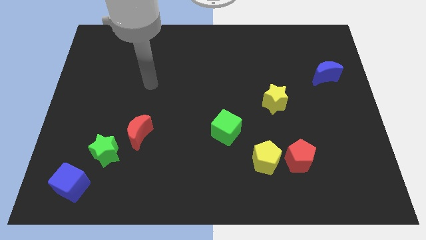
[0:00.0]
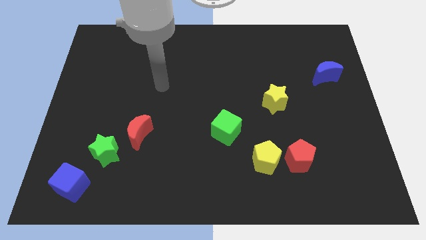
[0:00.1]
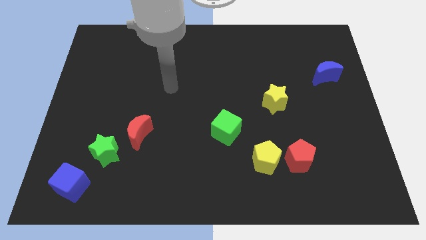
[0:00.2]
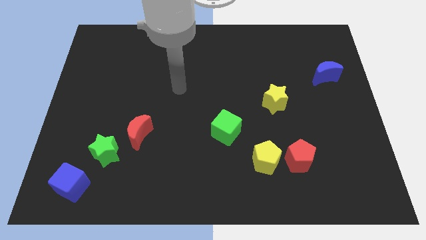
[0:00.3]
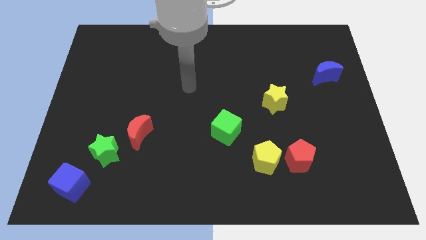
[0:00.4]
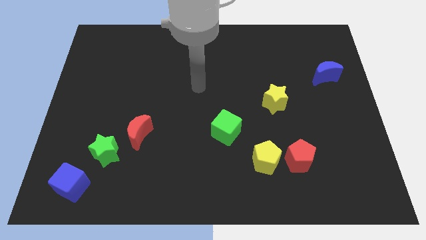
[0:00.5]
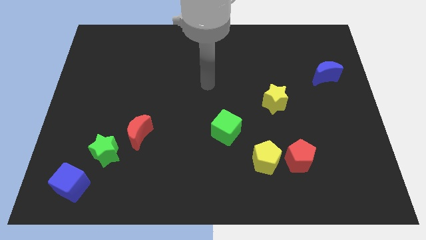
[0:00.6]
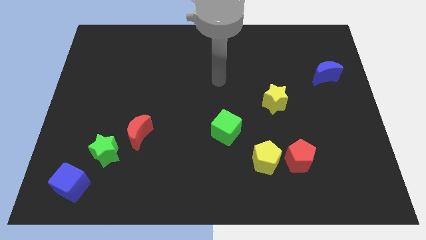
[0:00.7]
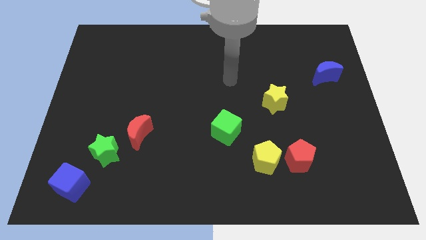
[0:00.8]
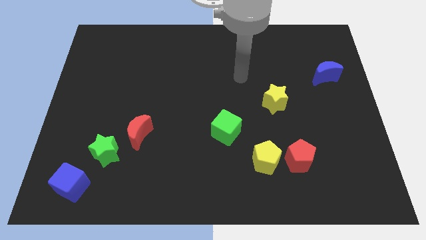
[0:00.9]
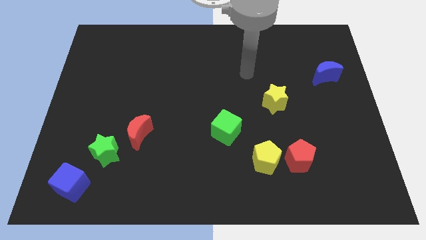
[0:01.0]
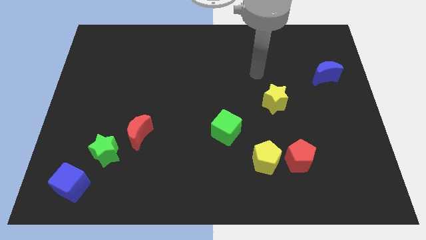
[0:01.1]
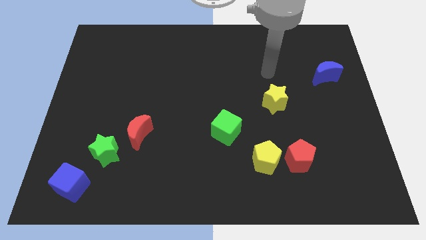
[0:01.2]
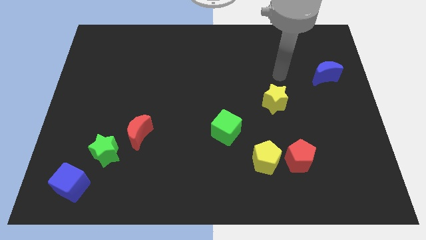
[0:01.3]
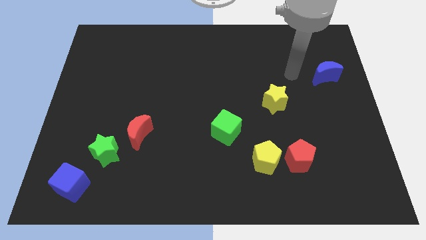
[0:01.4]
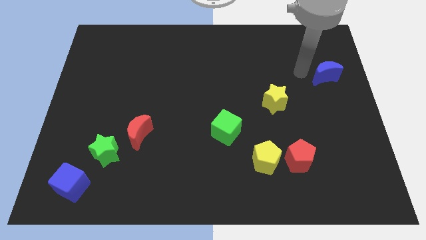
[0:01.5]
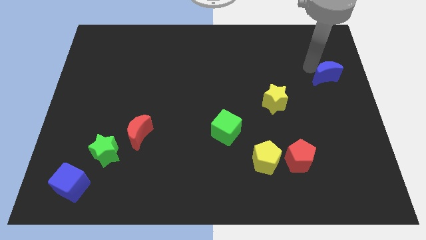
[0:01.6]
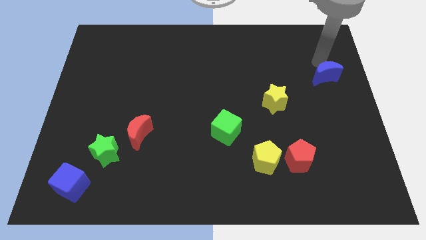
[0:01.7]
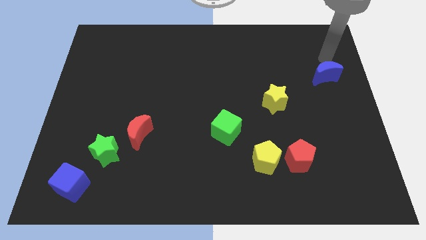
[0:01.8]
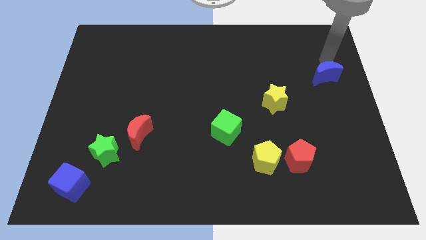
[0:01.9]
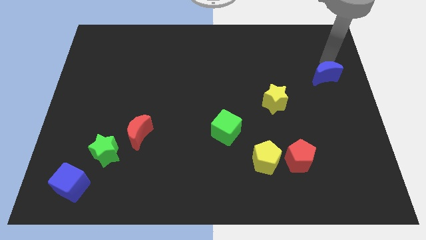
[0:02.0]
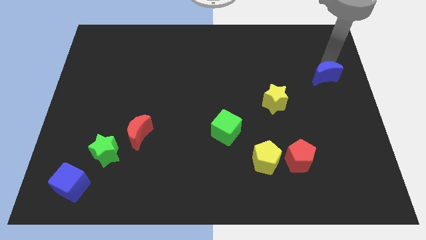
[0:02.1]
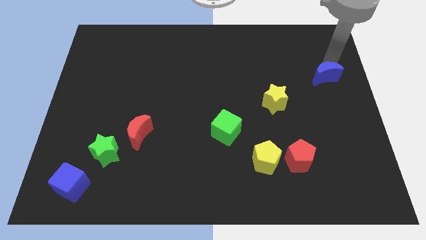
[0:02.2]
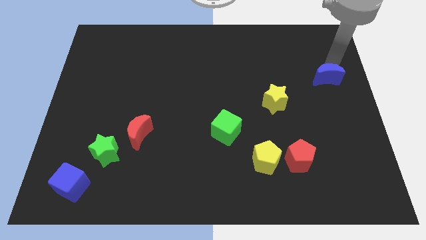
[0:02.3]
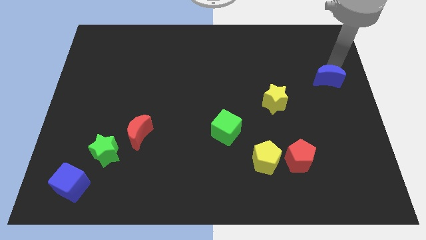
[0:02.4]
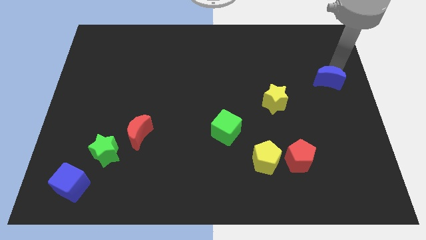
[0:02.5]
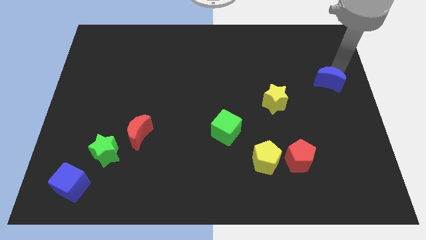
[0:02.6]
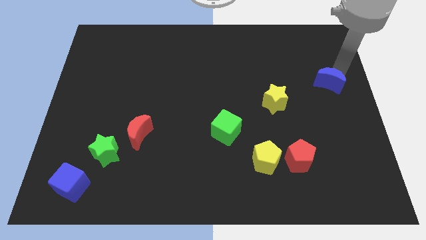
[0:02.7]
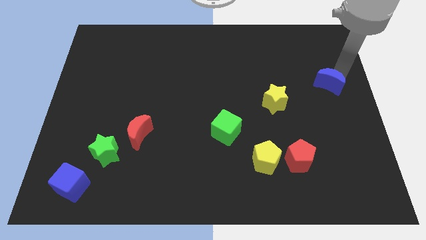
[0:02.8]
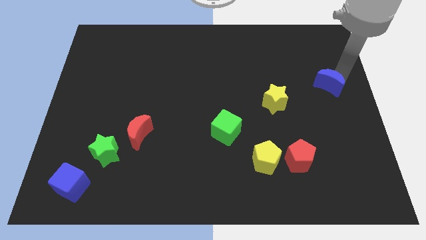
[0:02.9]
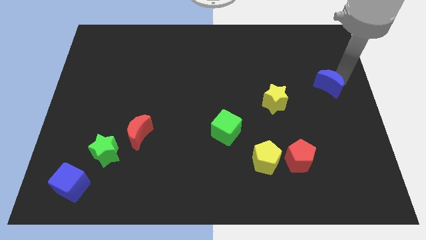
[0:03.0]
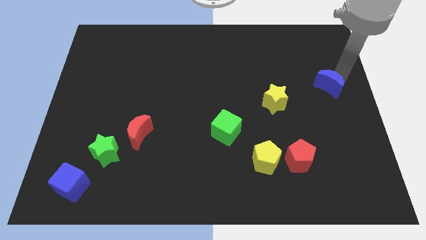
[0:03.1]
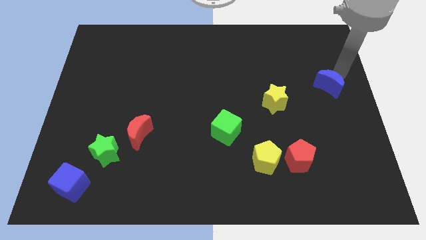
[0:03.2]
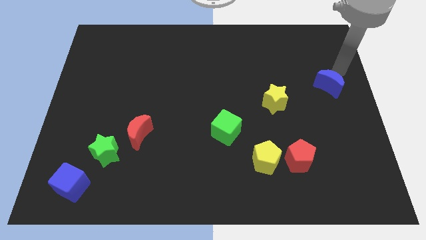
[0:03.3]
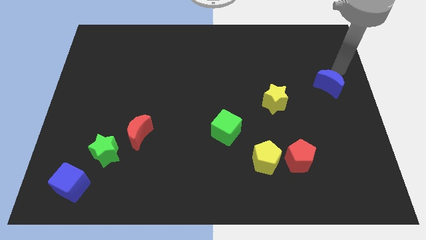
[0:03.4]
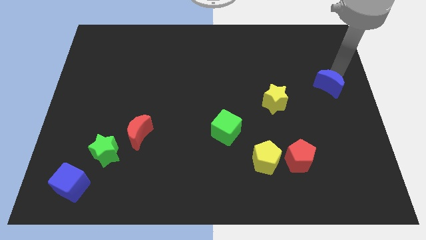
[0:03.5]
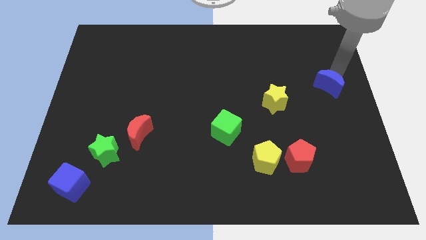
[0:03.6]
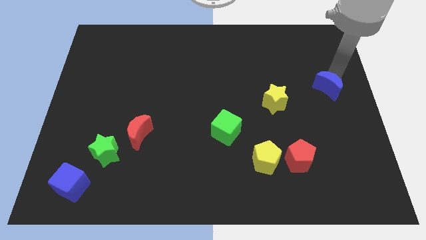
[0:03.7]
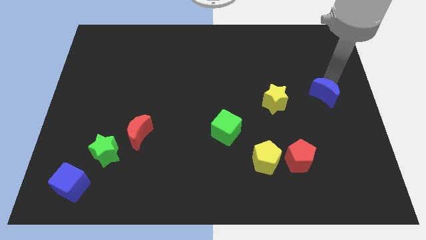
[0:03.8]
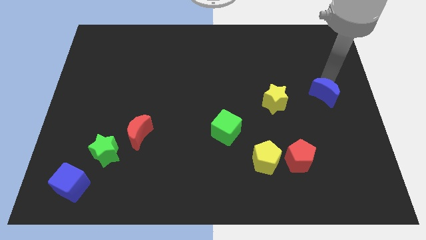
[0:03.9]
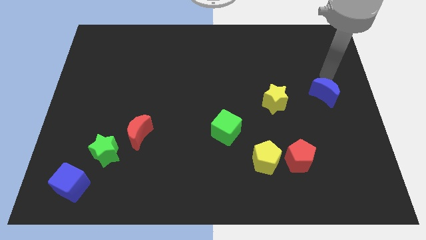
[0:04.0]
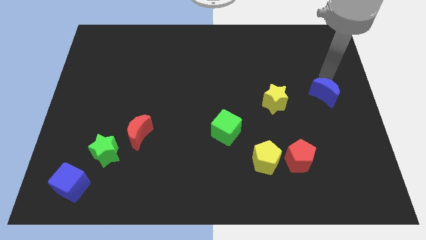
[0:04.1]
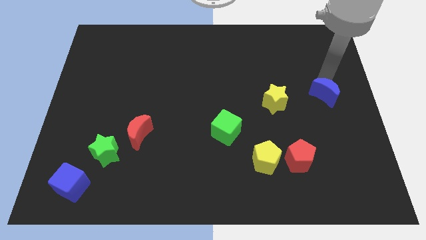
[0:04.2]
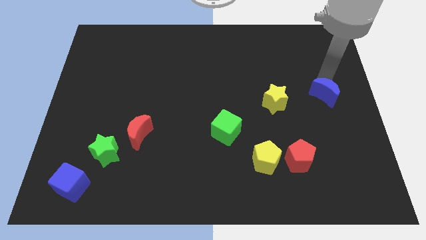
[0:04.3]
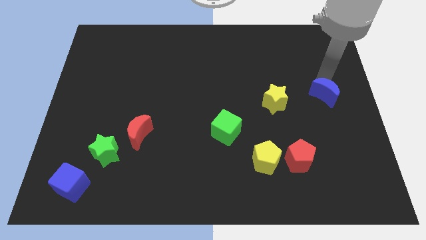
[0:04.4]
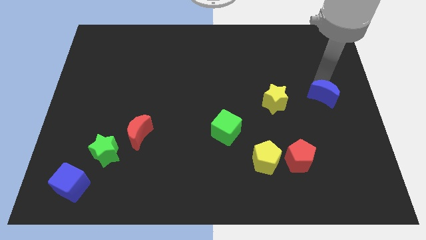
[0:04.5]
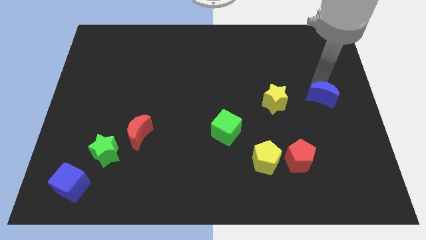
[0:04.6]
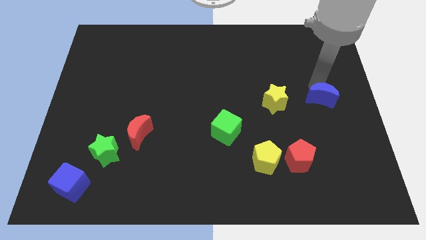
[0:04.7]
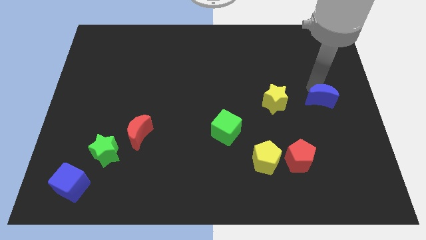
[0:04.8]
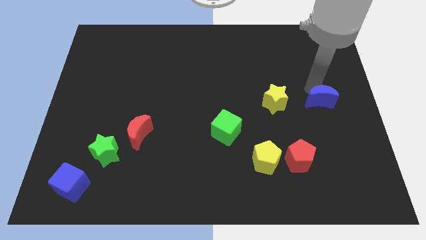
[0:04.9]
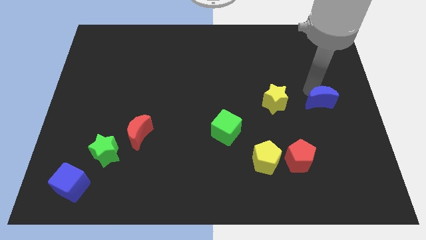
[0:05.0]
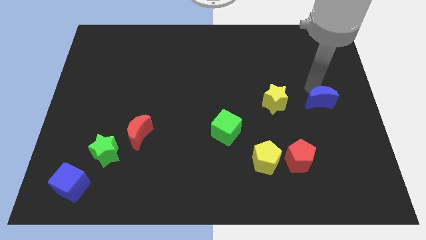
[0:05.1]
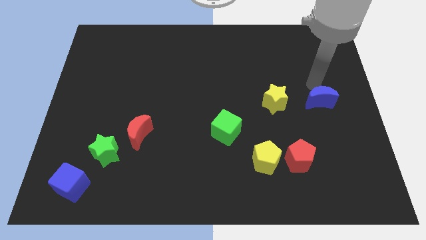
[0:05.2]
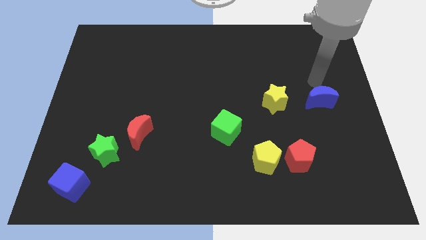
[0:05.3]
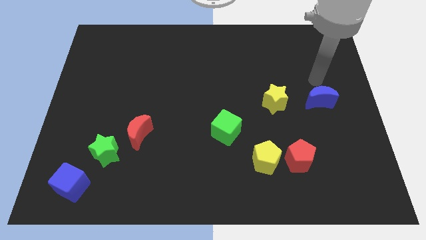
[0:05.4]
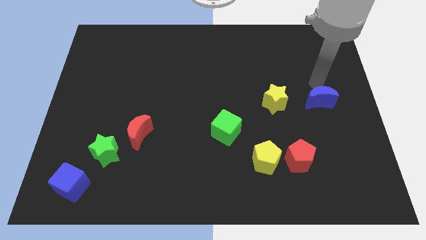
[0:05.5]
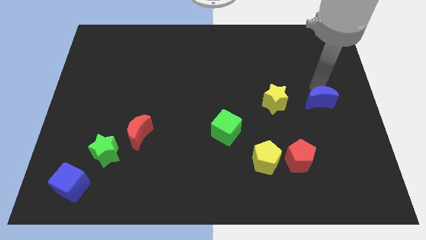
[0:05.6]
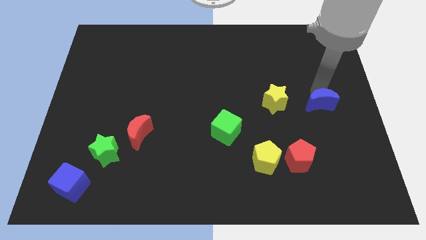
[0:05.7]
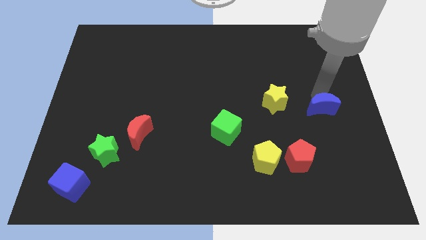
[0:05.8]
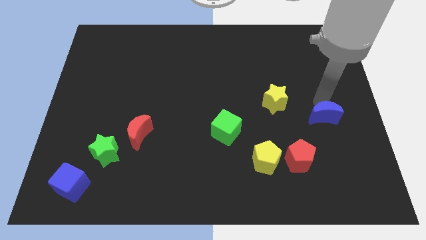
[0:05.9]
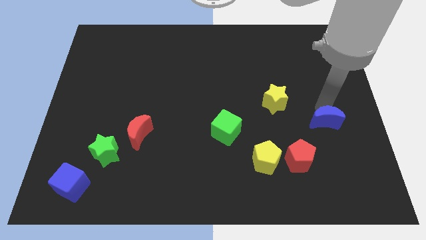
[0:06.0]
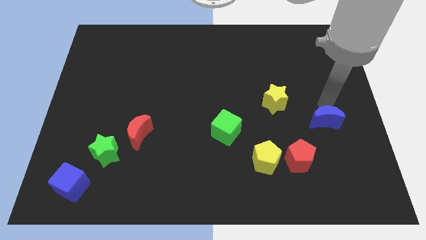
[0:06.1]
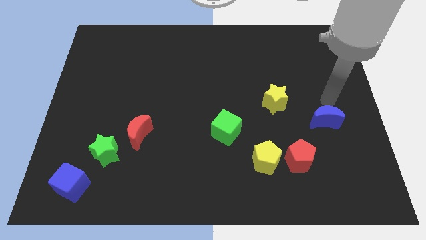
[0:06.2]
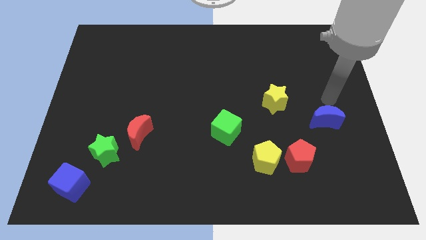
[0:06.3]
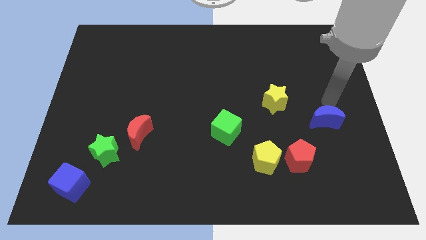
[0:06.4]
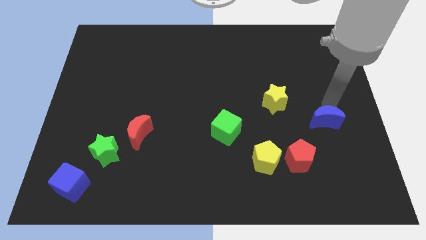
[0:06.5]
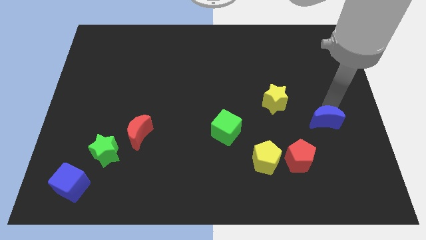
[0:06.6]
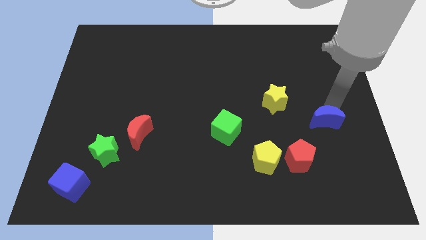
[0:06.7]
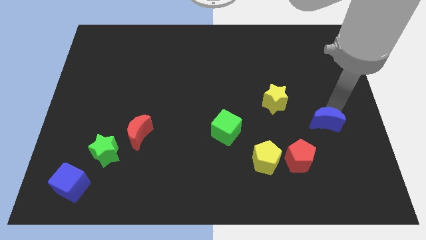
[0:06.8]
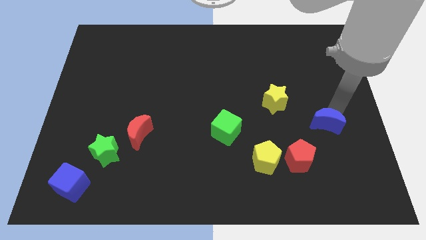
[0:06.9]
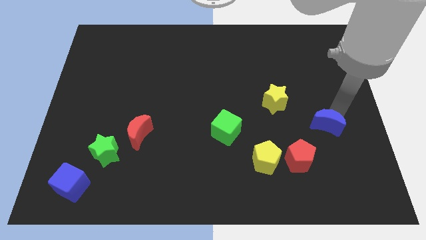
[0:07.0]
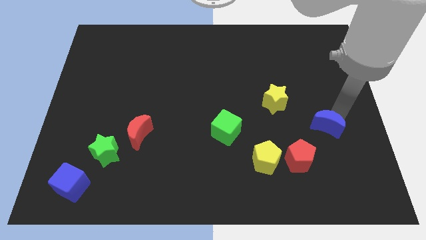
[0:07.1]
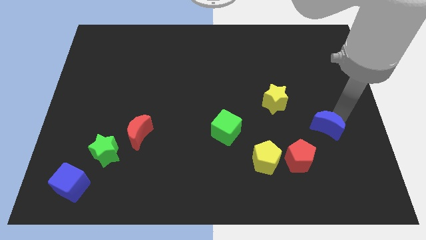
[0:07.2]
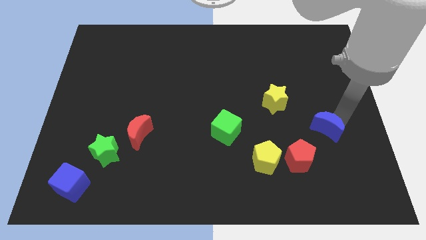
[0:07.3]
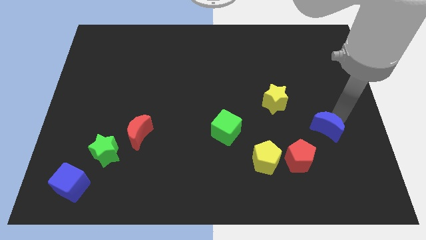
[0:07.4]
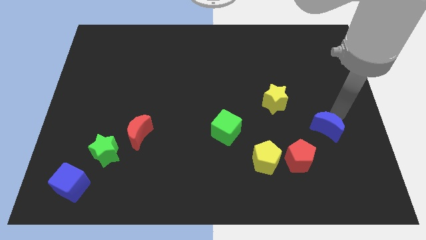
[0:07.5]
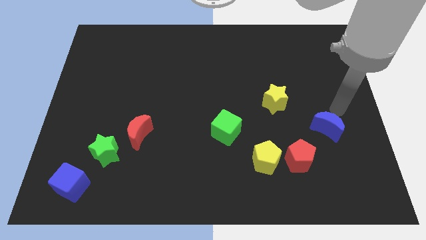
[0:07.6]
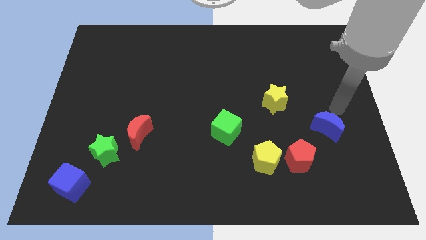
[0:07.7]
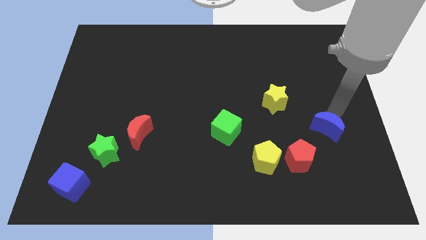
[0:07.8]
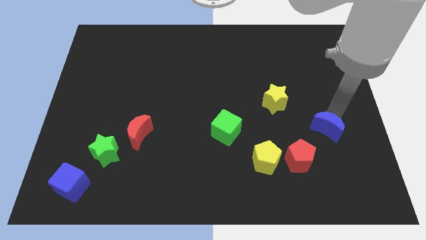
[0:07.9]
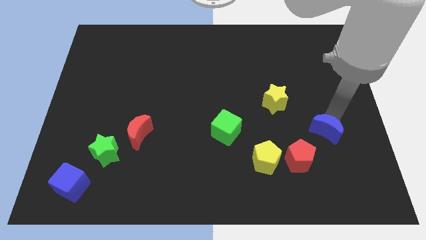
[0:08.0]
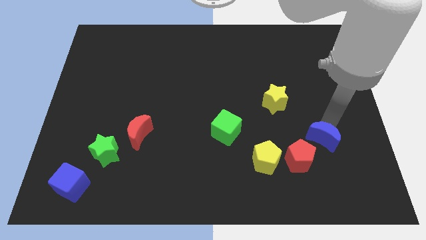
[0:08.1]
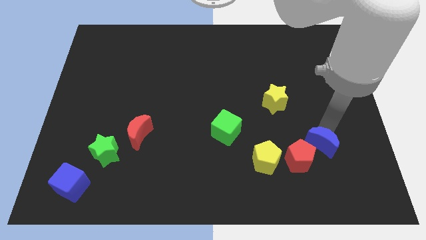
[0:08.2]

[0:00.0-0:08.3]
slide the blue moon just right of the yellow pentagon
